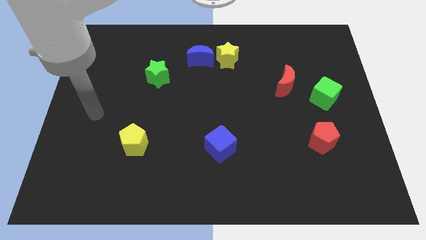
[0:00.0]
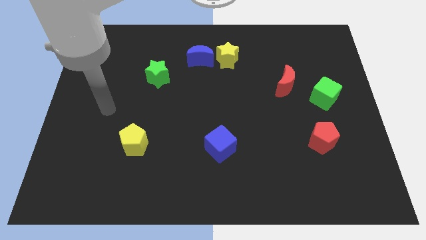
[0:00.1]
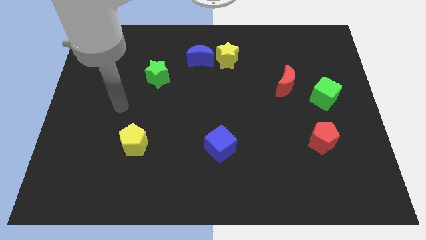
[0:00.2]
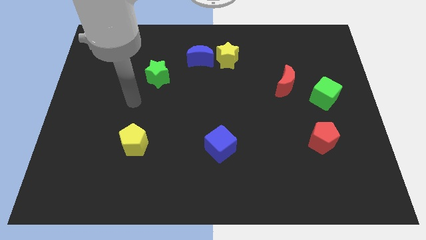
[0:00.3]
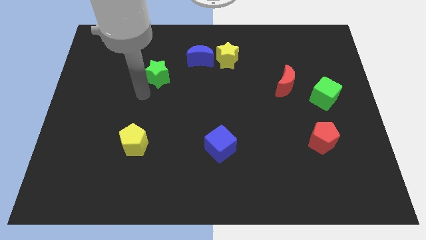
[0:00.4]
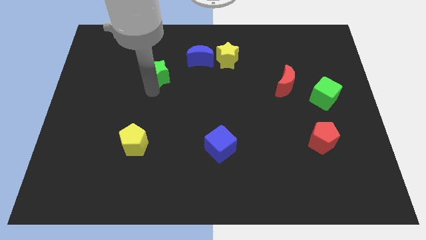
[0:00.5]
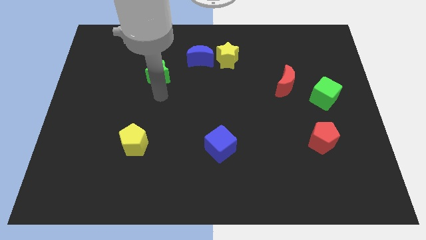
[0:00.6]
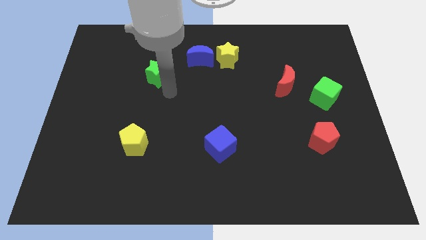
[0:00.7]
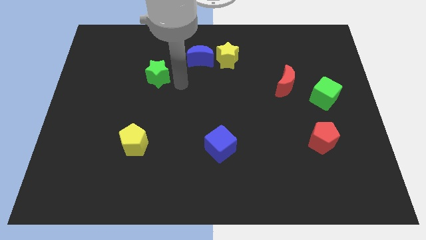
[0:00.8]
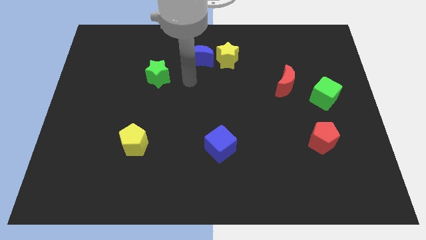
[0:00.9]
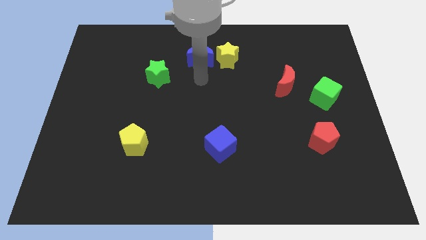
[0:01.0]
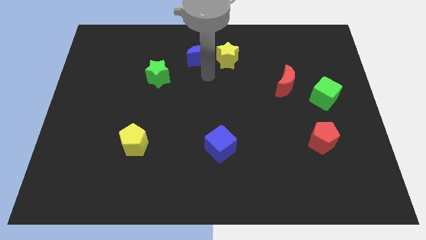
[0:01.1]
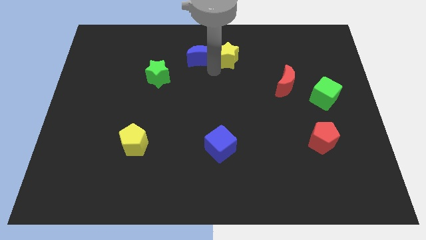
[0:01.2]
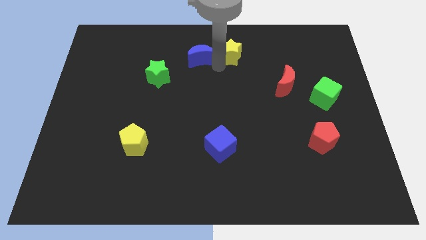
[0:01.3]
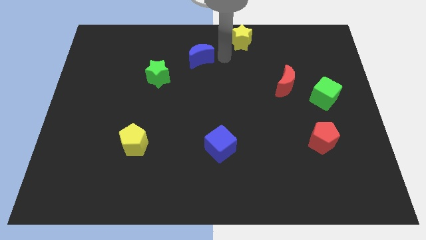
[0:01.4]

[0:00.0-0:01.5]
separate the blue moon from the yellow star

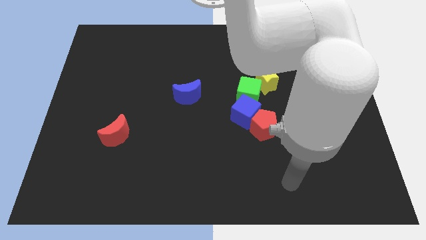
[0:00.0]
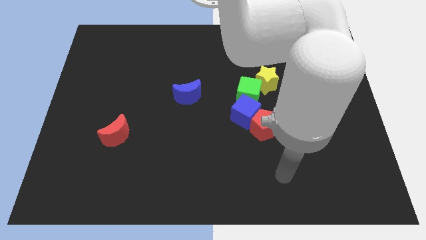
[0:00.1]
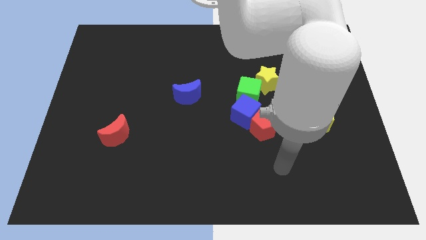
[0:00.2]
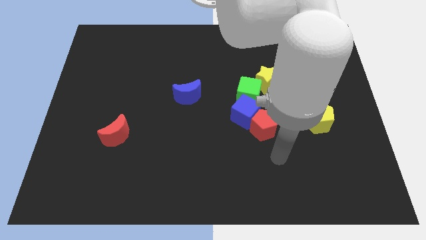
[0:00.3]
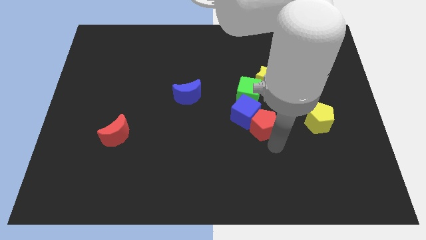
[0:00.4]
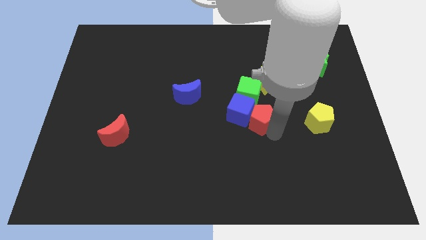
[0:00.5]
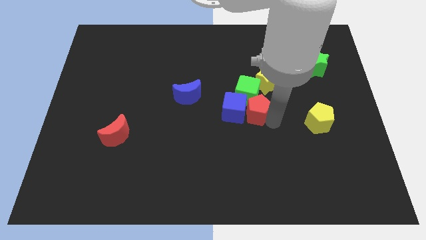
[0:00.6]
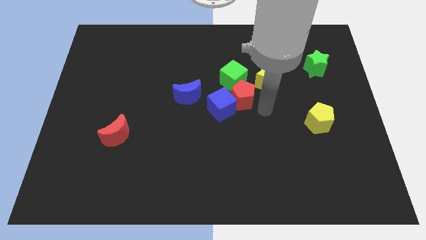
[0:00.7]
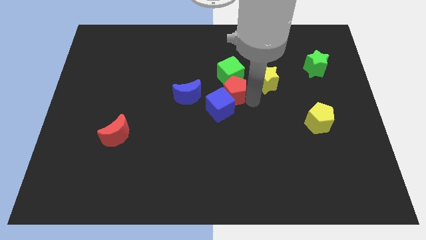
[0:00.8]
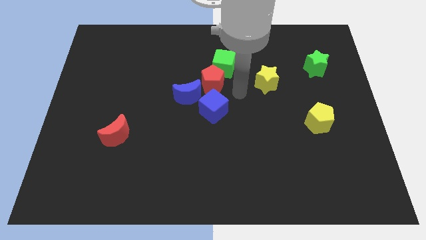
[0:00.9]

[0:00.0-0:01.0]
separate the blue cube from the red pentagon and green cube

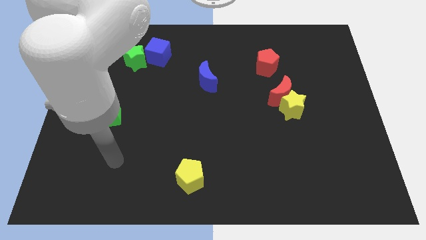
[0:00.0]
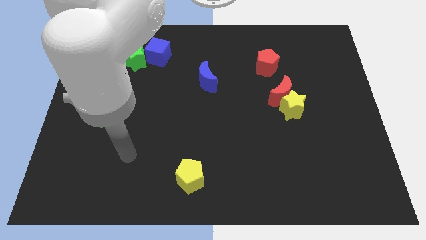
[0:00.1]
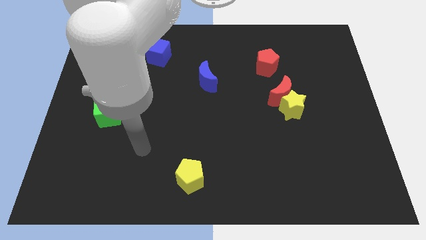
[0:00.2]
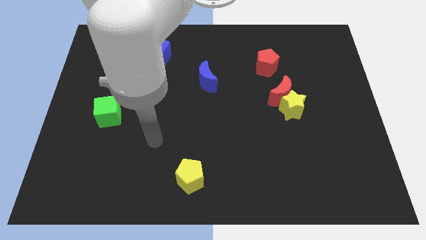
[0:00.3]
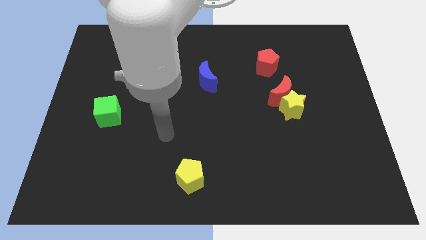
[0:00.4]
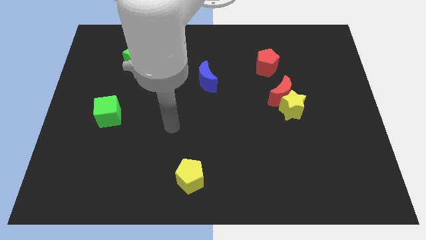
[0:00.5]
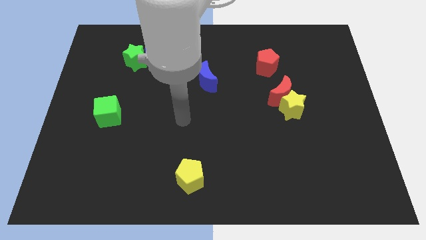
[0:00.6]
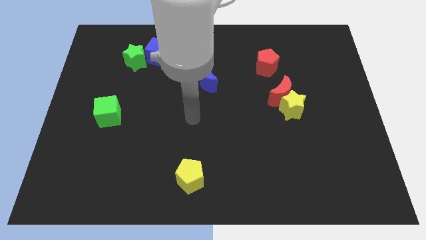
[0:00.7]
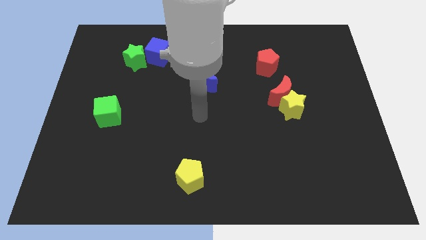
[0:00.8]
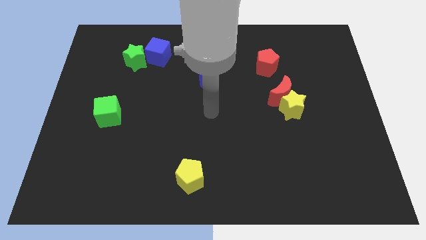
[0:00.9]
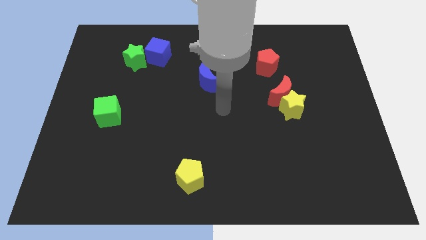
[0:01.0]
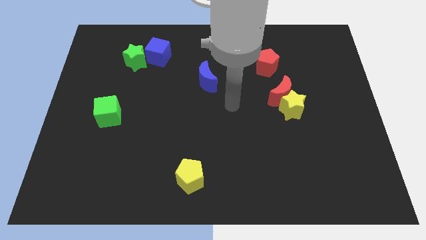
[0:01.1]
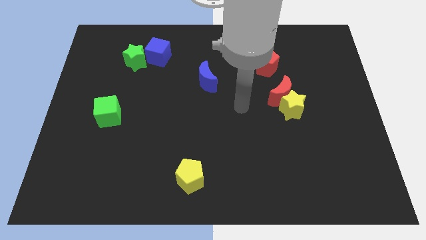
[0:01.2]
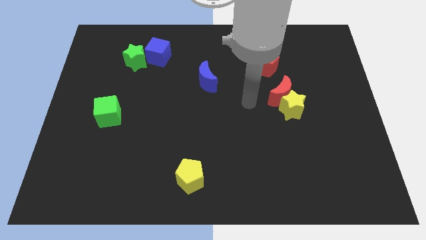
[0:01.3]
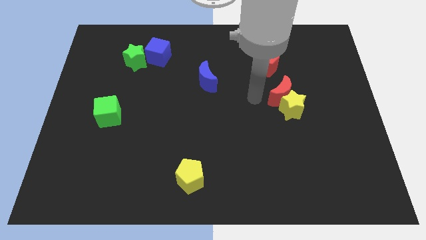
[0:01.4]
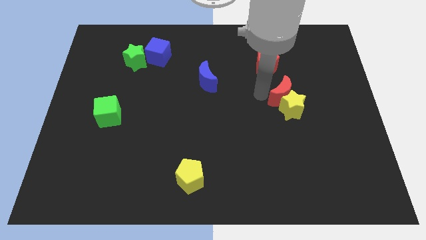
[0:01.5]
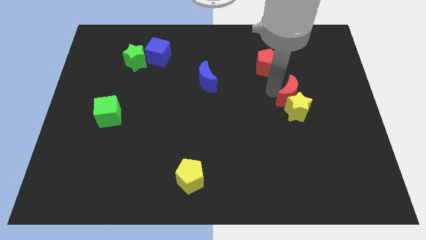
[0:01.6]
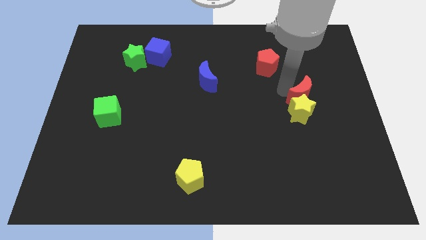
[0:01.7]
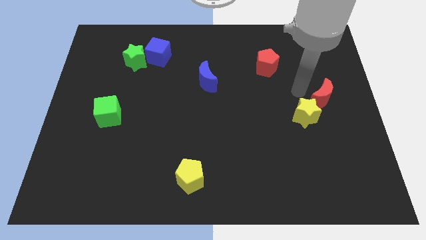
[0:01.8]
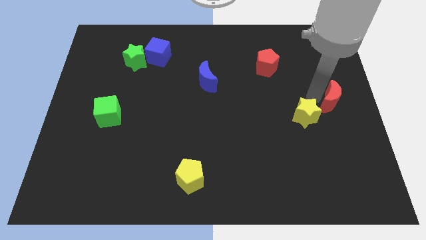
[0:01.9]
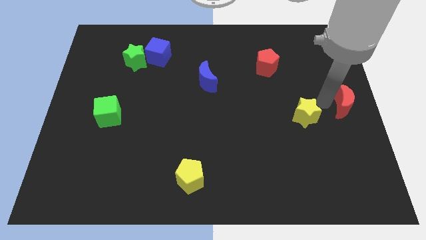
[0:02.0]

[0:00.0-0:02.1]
separate the yellow star from the red moon

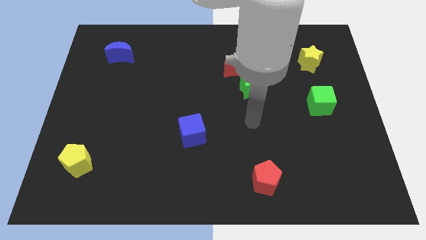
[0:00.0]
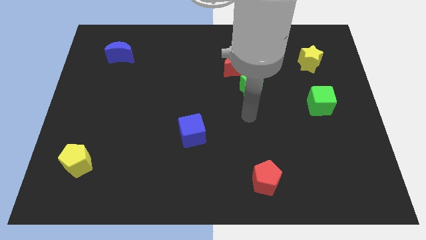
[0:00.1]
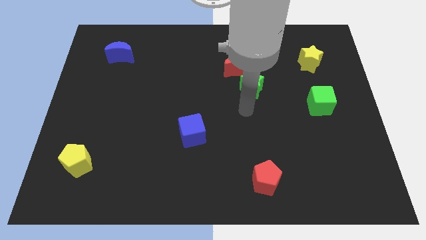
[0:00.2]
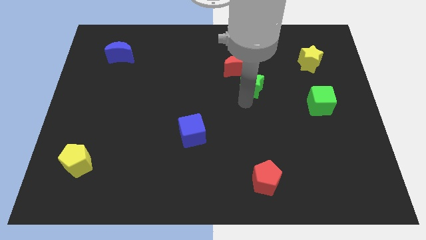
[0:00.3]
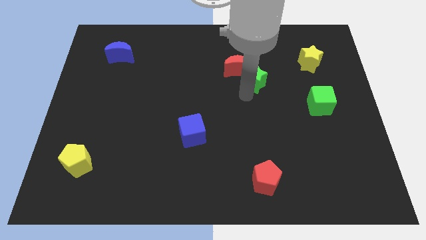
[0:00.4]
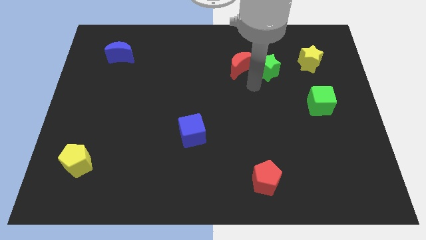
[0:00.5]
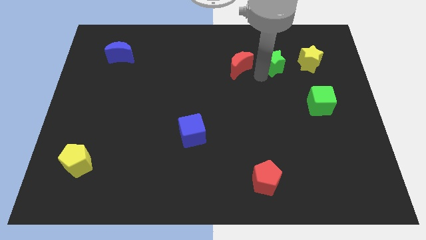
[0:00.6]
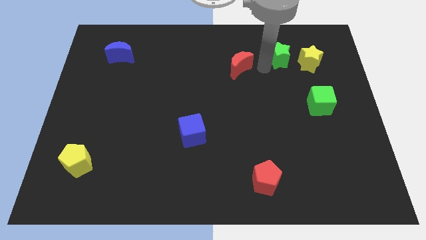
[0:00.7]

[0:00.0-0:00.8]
separate the red moon from the green star

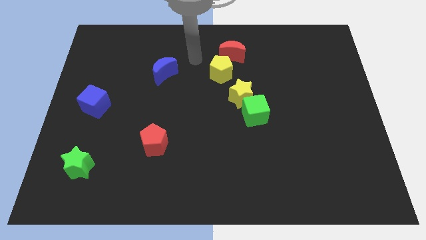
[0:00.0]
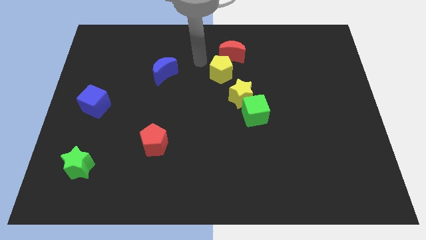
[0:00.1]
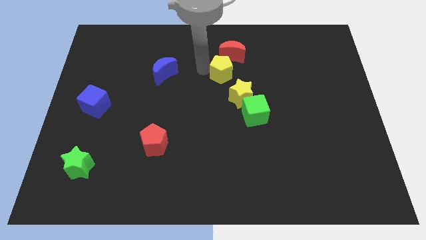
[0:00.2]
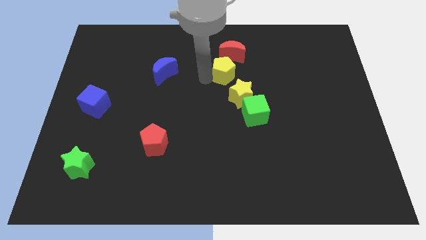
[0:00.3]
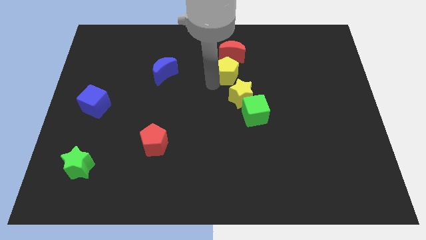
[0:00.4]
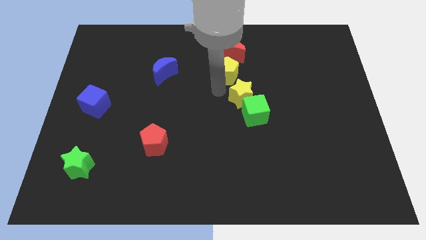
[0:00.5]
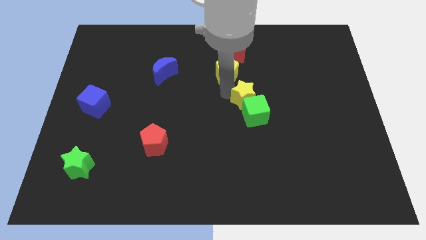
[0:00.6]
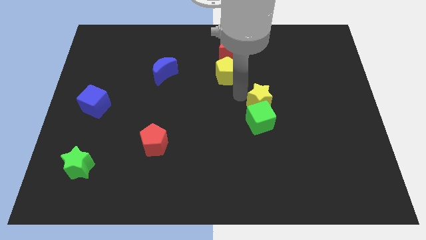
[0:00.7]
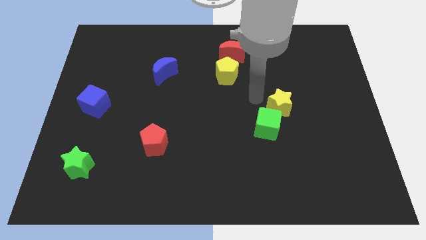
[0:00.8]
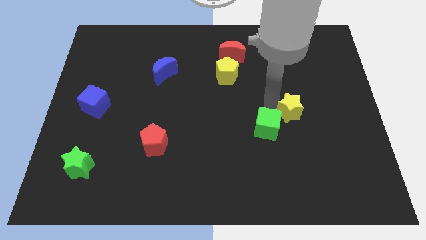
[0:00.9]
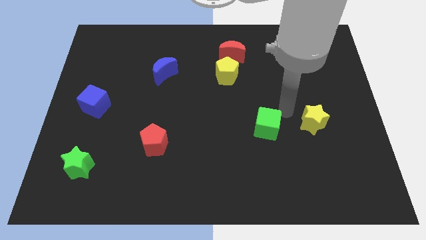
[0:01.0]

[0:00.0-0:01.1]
pull the green cube apart from the yellow star

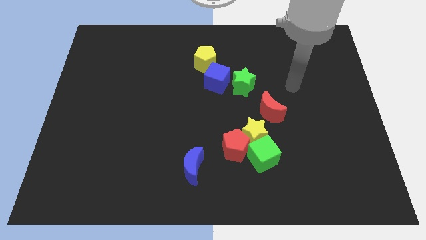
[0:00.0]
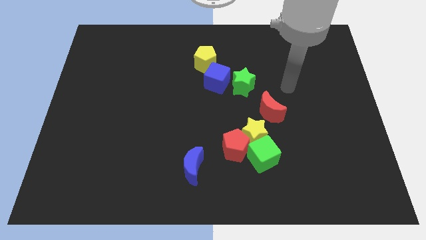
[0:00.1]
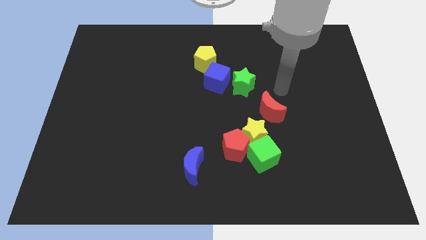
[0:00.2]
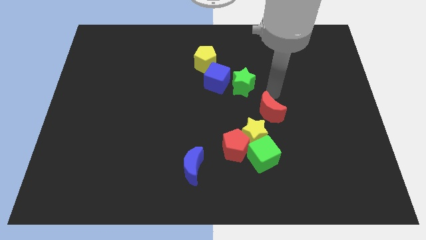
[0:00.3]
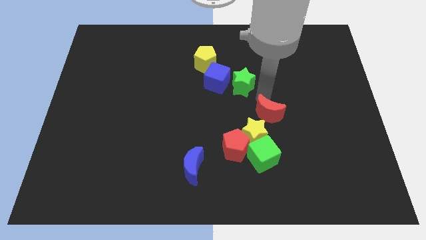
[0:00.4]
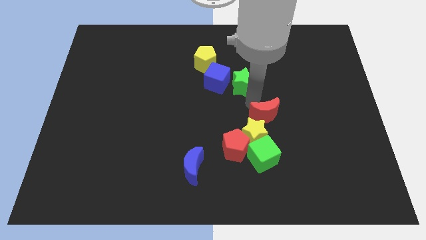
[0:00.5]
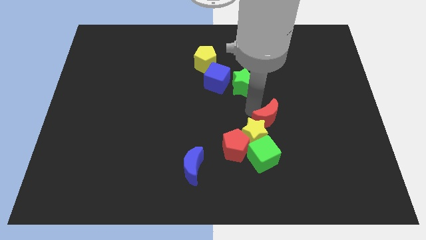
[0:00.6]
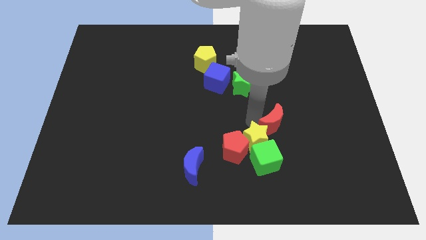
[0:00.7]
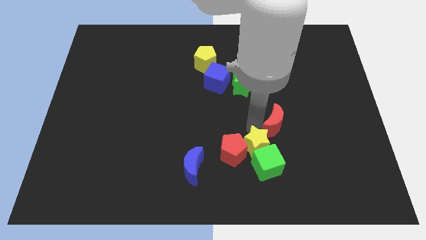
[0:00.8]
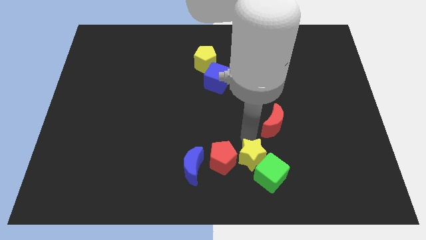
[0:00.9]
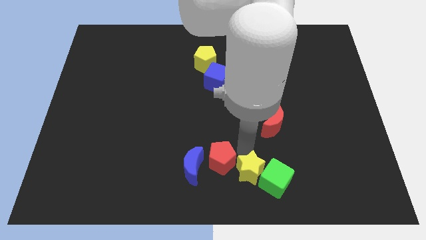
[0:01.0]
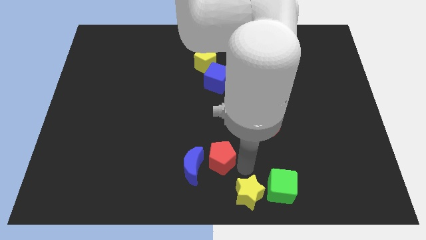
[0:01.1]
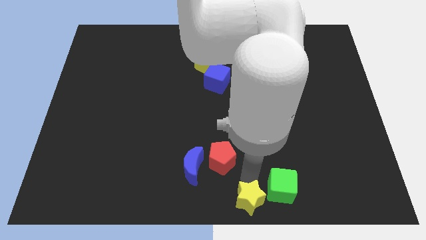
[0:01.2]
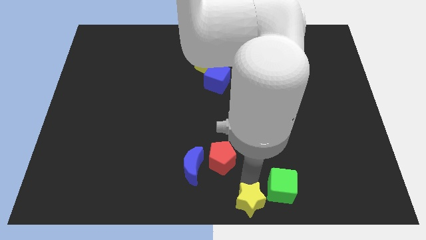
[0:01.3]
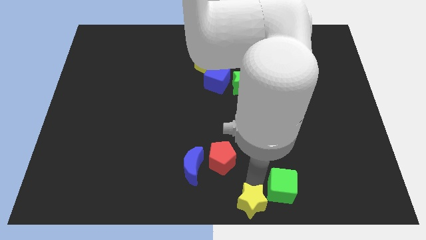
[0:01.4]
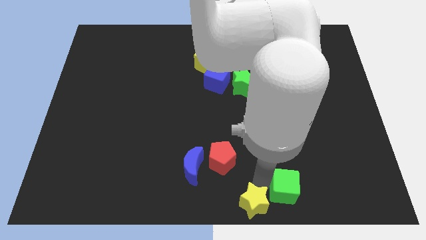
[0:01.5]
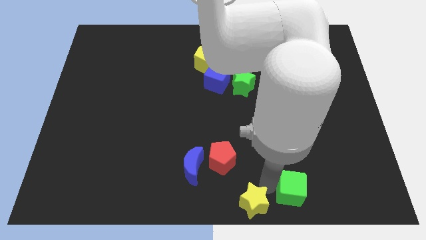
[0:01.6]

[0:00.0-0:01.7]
pull the green cube apart from the yellow star and red pentagon

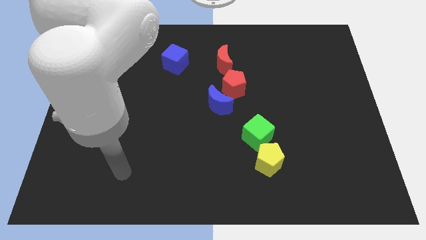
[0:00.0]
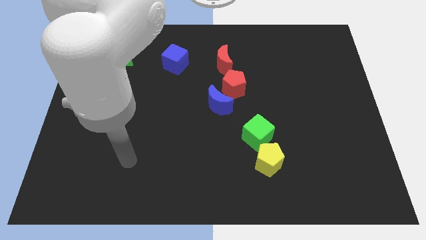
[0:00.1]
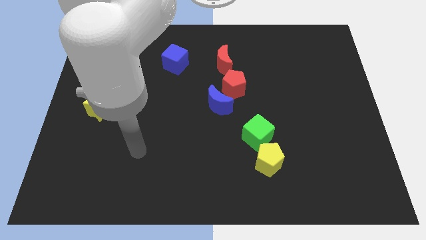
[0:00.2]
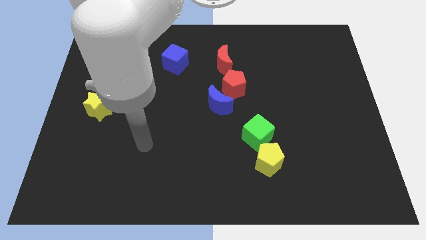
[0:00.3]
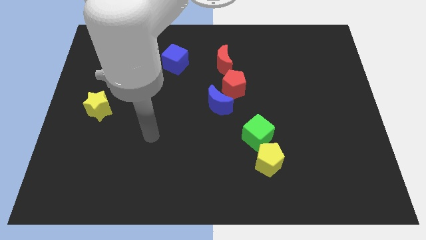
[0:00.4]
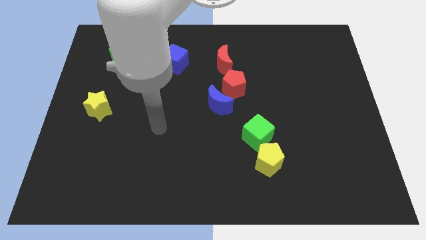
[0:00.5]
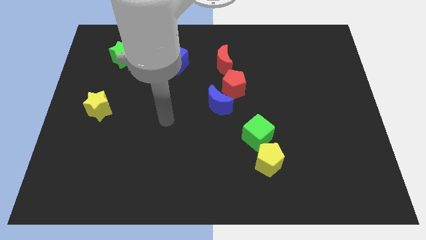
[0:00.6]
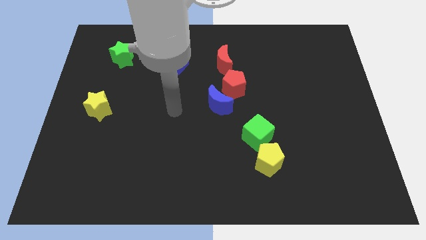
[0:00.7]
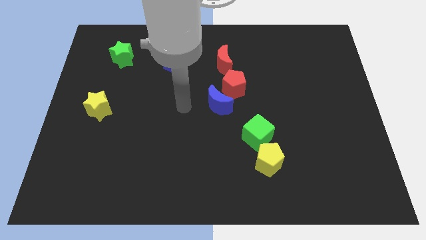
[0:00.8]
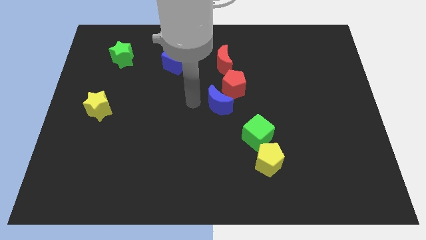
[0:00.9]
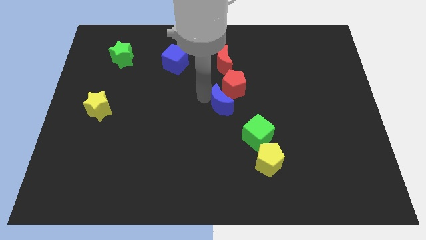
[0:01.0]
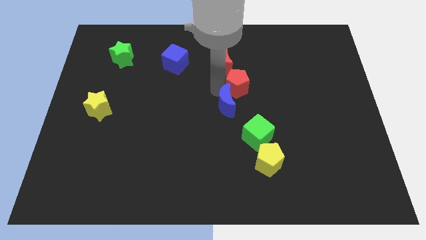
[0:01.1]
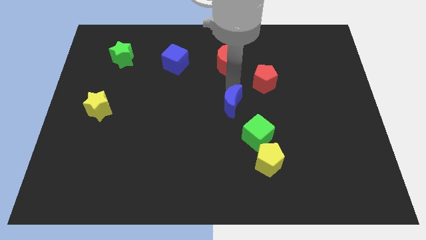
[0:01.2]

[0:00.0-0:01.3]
pull the blue moon apart from the red pentagon

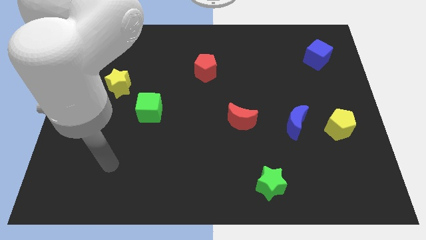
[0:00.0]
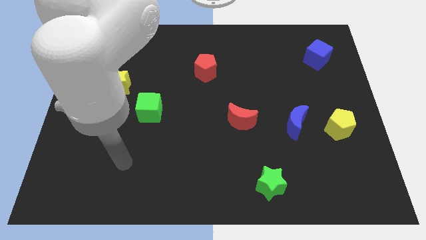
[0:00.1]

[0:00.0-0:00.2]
separate the blue moon from the yellow pentagon
